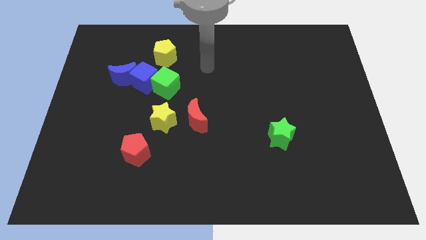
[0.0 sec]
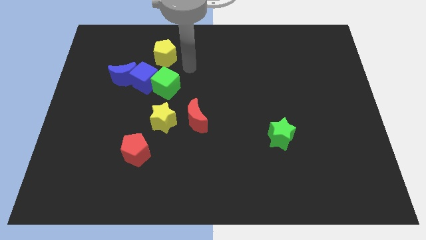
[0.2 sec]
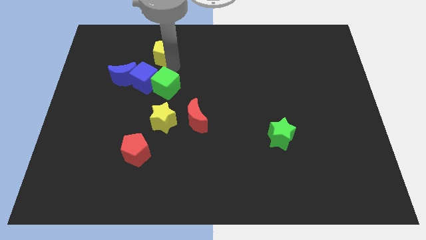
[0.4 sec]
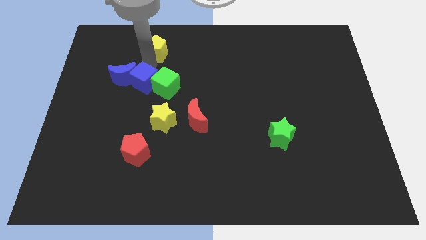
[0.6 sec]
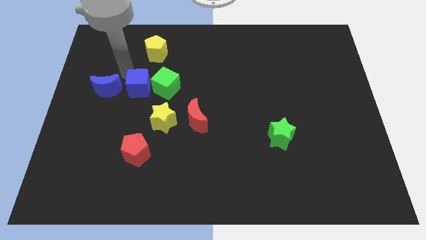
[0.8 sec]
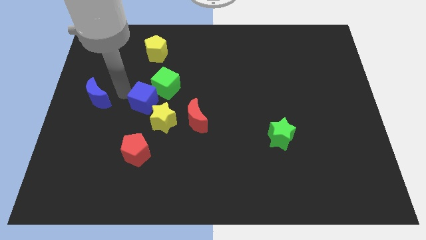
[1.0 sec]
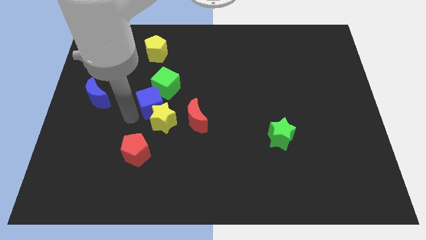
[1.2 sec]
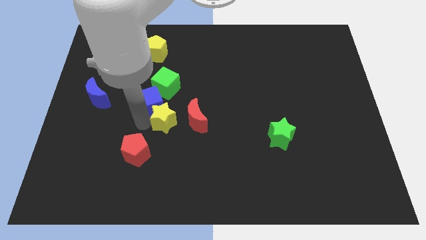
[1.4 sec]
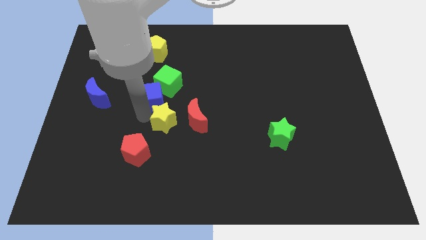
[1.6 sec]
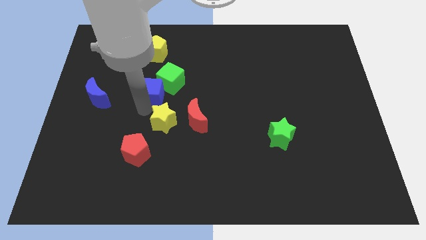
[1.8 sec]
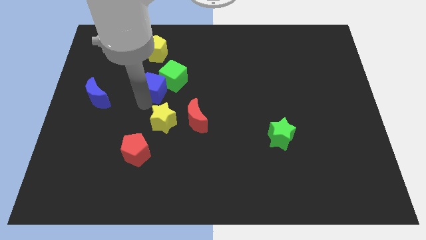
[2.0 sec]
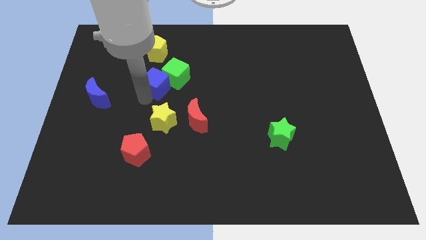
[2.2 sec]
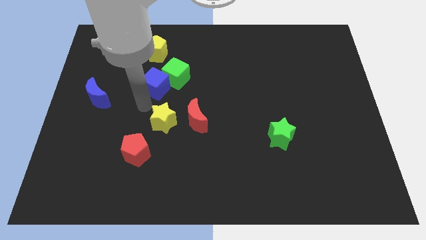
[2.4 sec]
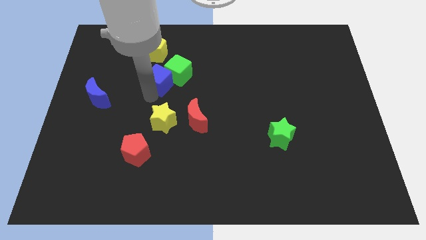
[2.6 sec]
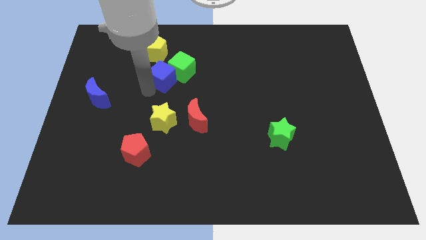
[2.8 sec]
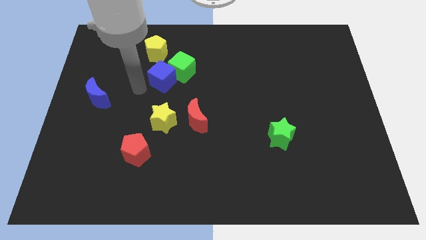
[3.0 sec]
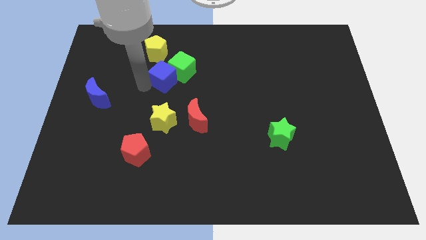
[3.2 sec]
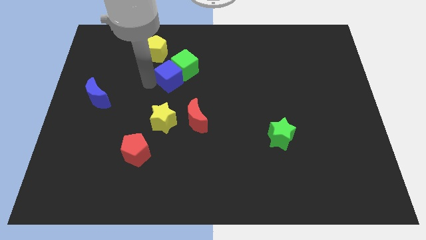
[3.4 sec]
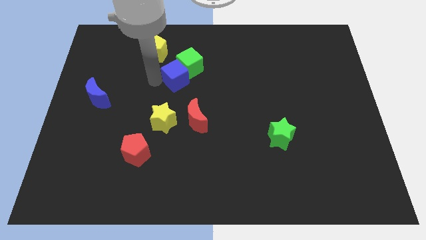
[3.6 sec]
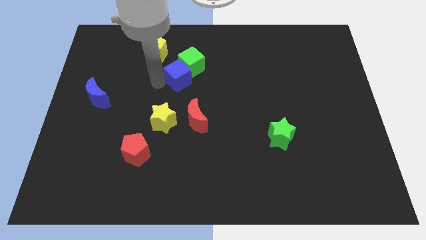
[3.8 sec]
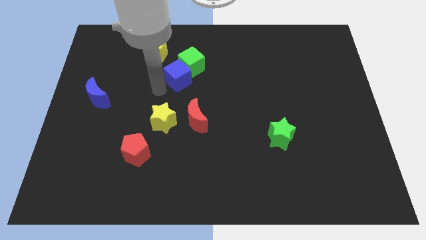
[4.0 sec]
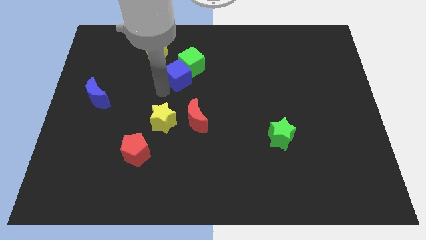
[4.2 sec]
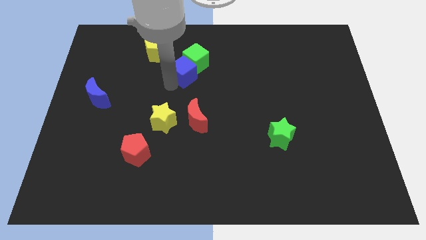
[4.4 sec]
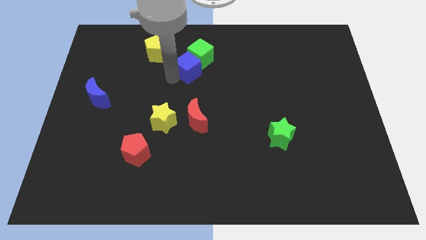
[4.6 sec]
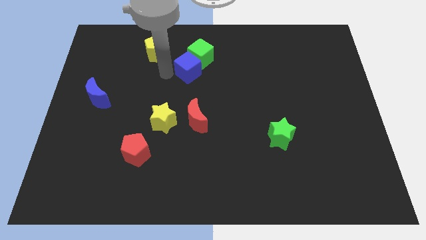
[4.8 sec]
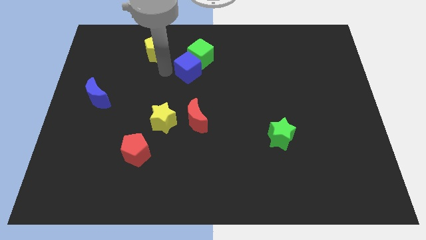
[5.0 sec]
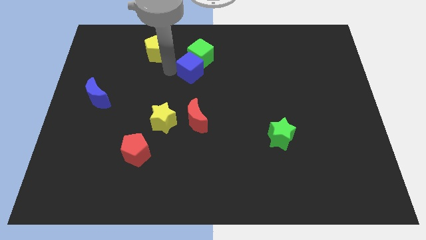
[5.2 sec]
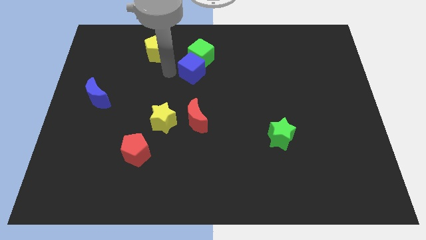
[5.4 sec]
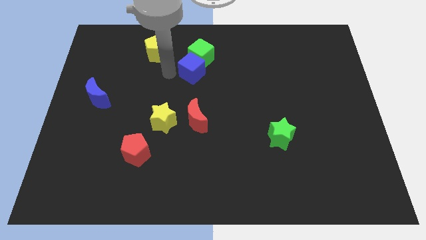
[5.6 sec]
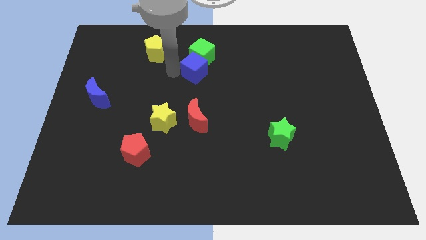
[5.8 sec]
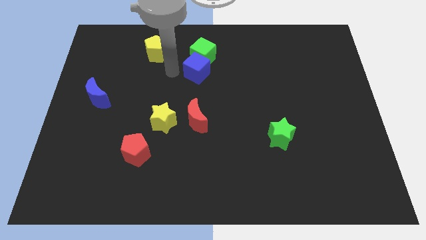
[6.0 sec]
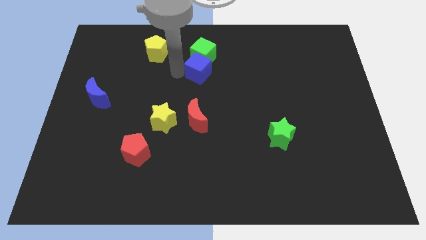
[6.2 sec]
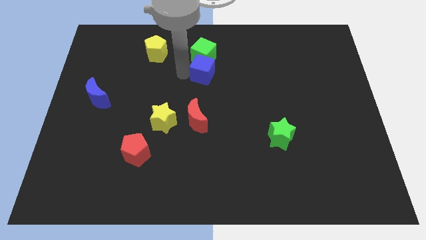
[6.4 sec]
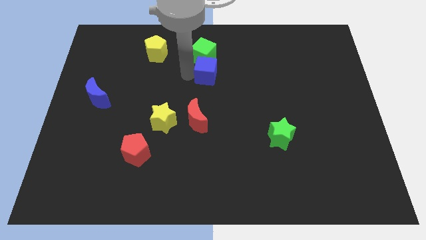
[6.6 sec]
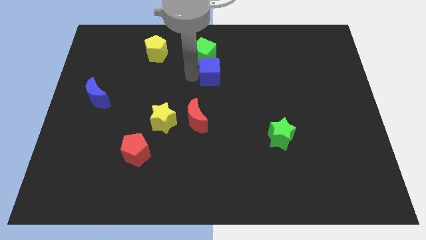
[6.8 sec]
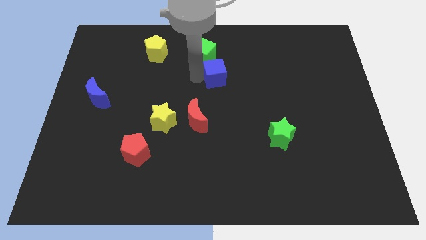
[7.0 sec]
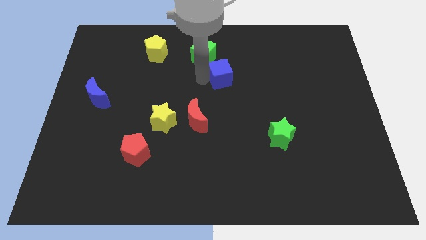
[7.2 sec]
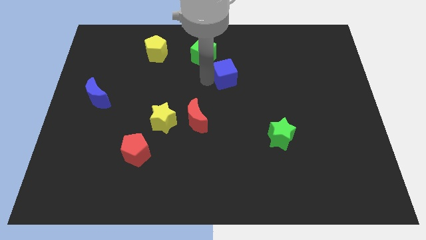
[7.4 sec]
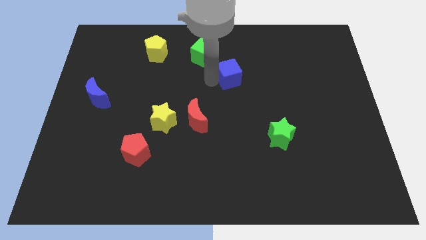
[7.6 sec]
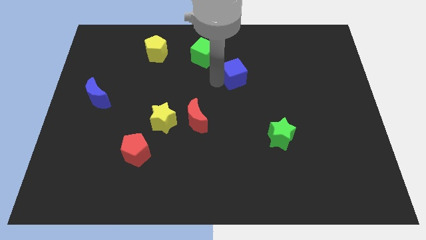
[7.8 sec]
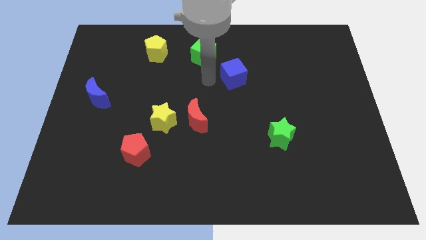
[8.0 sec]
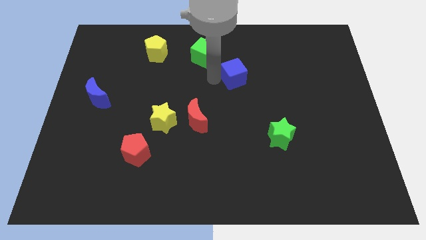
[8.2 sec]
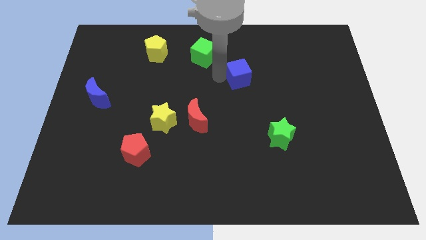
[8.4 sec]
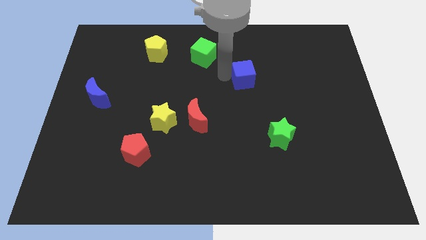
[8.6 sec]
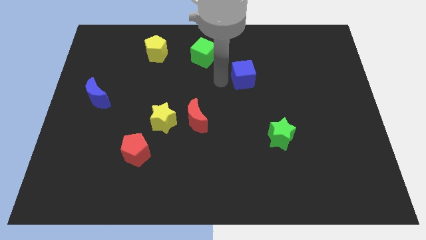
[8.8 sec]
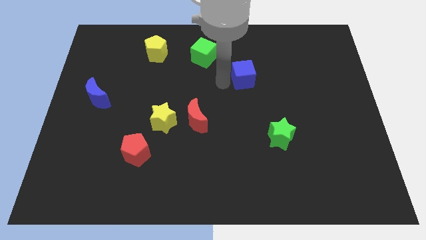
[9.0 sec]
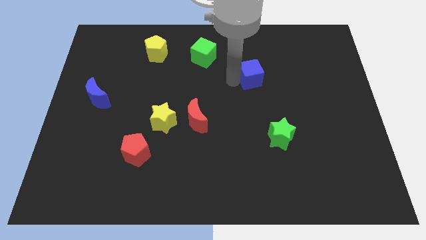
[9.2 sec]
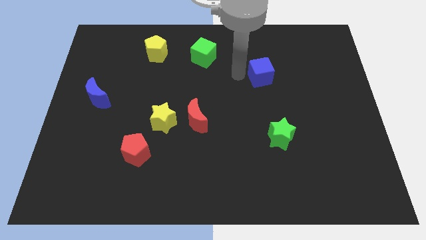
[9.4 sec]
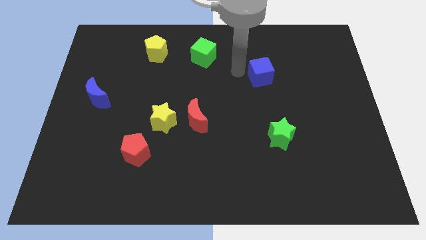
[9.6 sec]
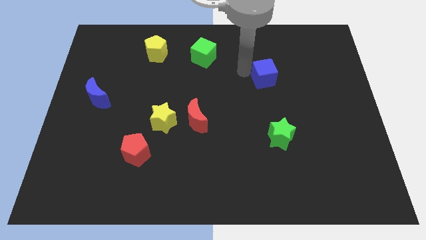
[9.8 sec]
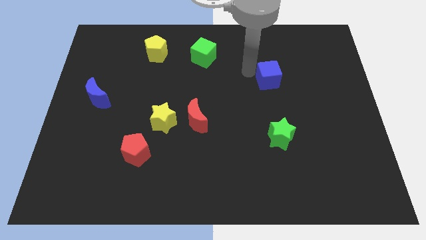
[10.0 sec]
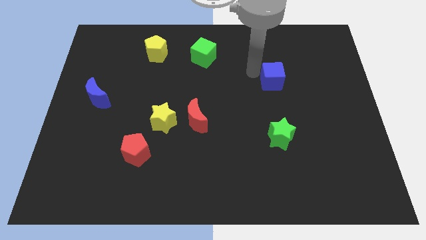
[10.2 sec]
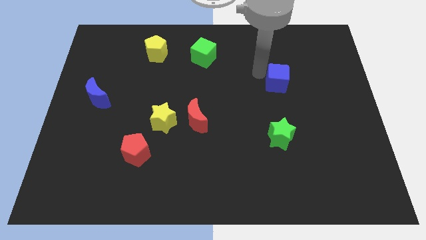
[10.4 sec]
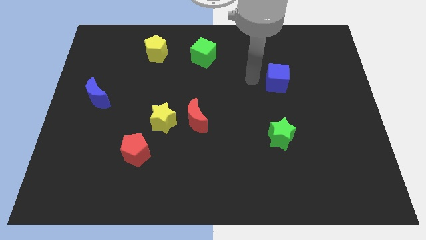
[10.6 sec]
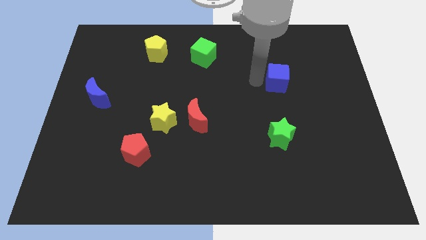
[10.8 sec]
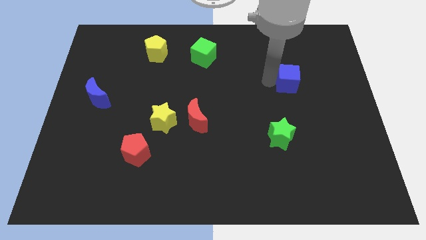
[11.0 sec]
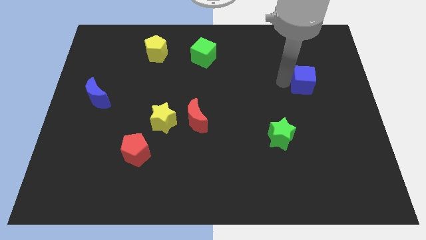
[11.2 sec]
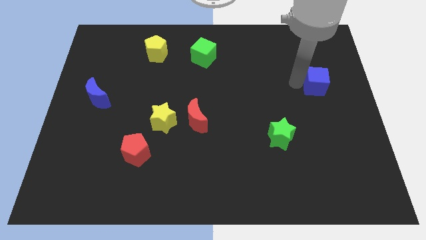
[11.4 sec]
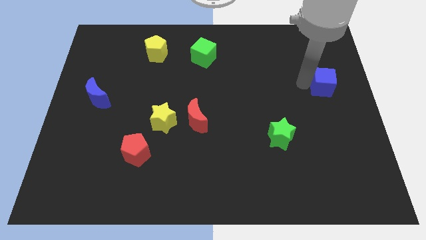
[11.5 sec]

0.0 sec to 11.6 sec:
put the blue cube to the right side of the board

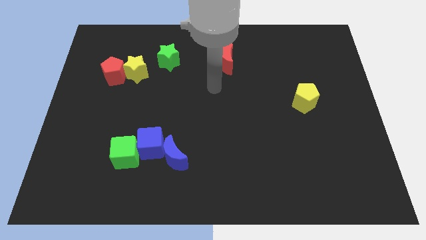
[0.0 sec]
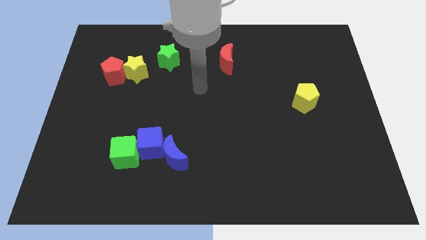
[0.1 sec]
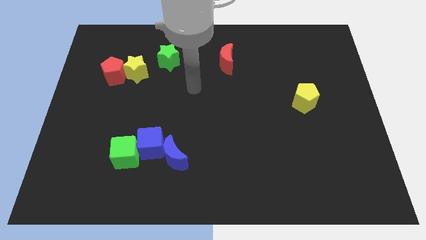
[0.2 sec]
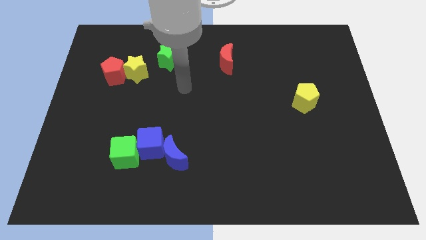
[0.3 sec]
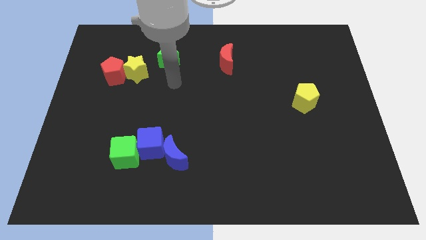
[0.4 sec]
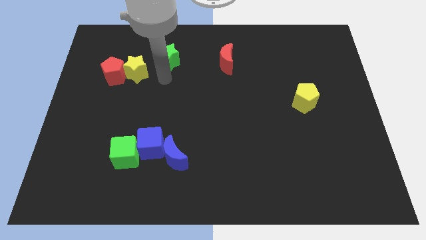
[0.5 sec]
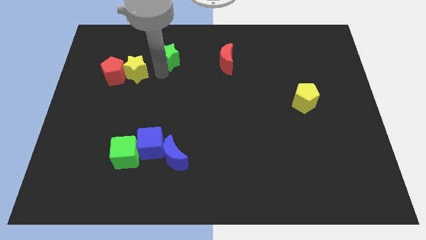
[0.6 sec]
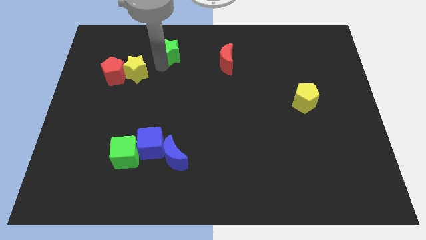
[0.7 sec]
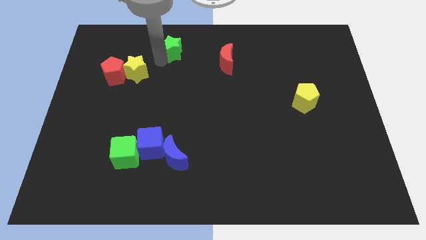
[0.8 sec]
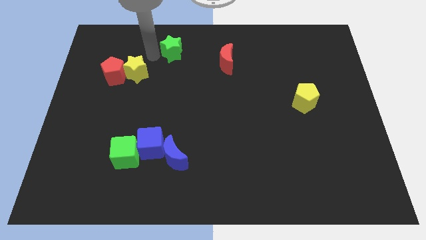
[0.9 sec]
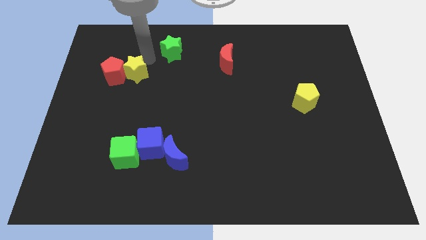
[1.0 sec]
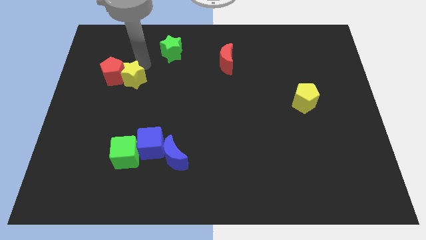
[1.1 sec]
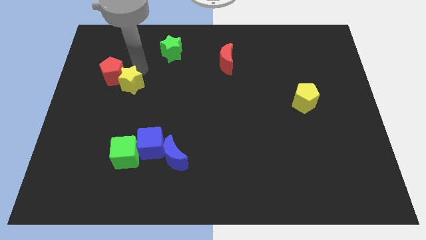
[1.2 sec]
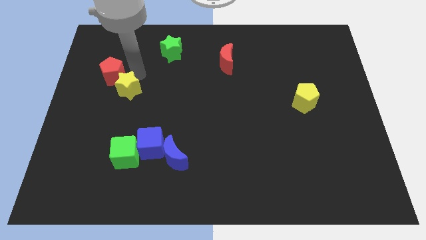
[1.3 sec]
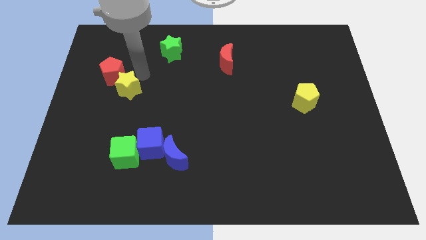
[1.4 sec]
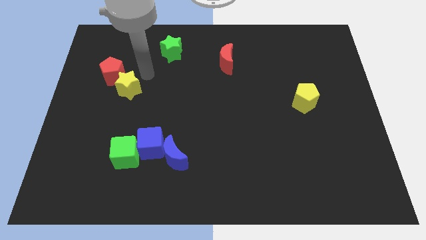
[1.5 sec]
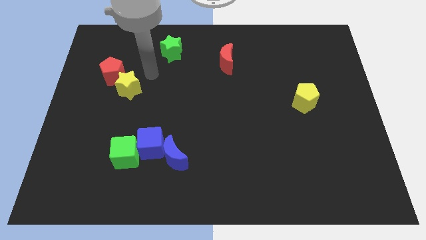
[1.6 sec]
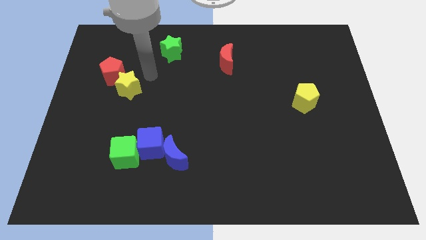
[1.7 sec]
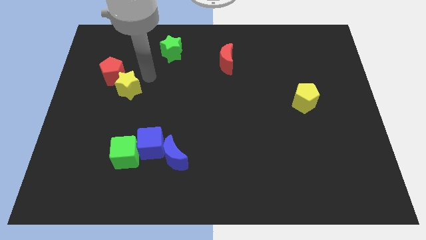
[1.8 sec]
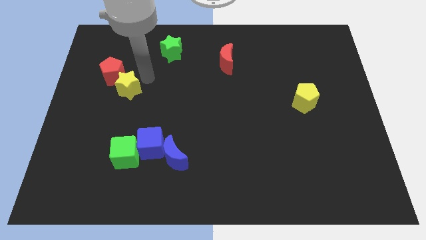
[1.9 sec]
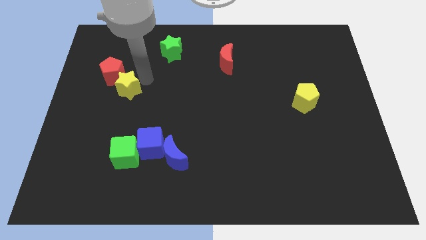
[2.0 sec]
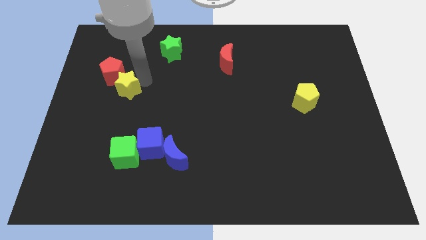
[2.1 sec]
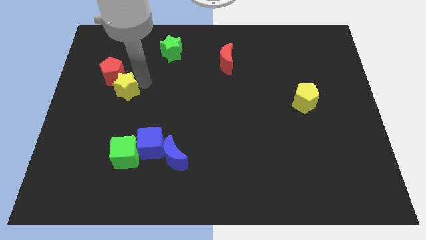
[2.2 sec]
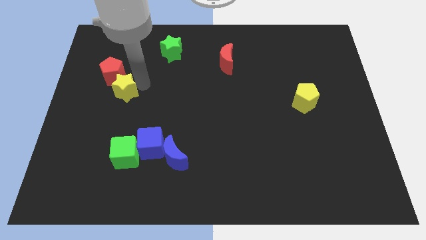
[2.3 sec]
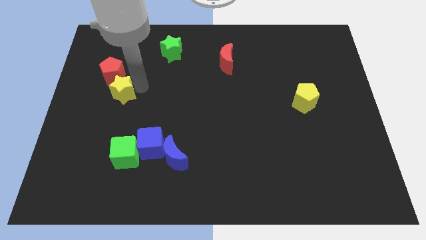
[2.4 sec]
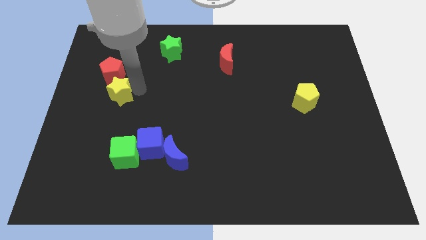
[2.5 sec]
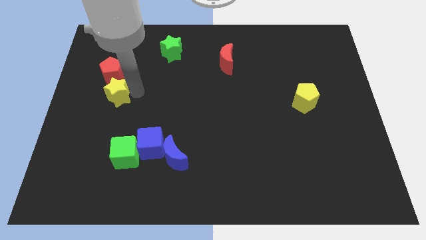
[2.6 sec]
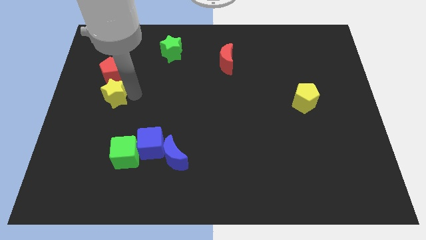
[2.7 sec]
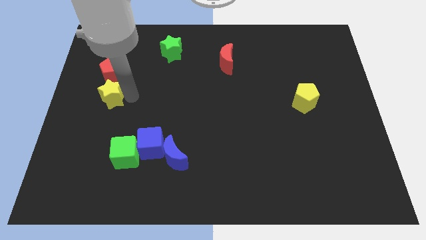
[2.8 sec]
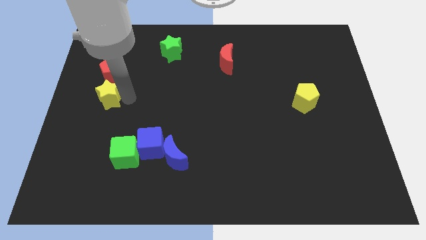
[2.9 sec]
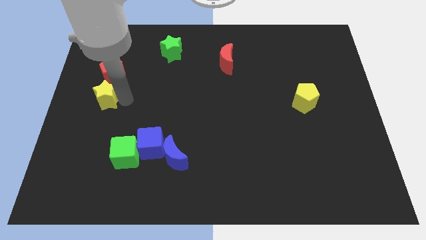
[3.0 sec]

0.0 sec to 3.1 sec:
slide the yellow star to the left side
